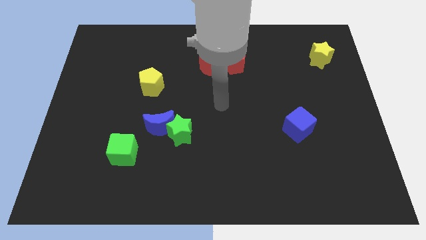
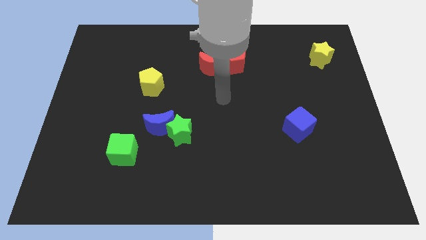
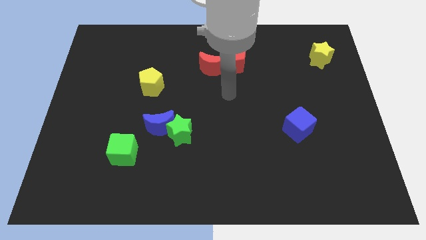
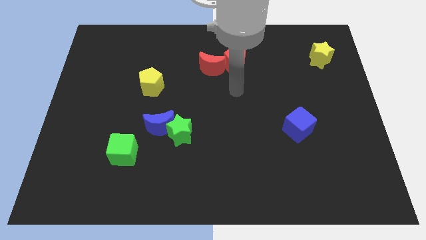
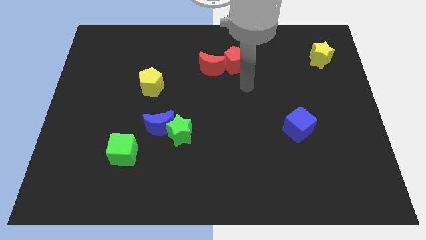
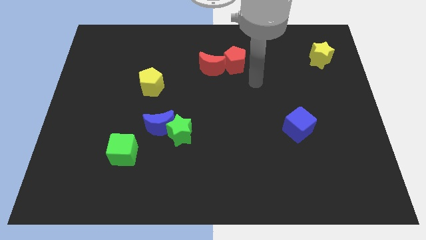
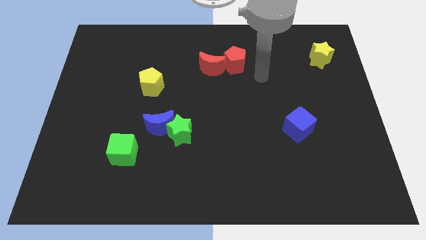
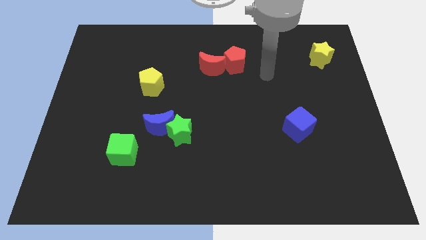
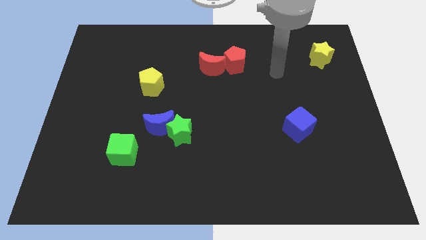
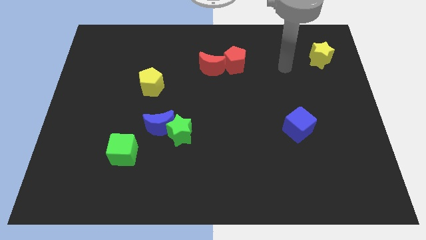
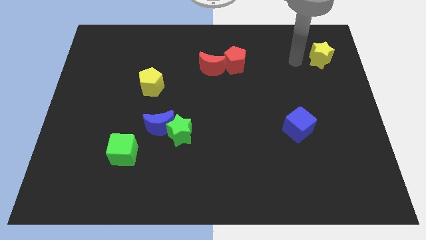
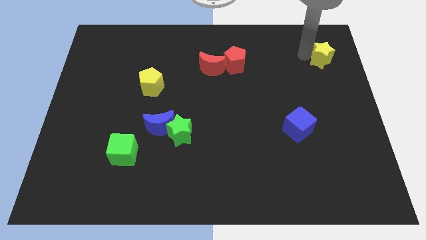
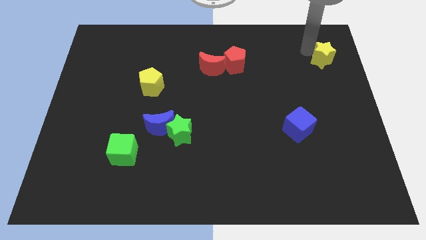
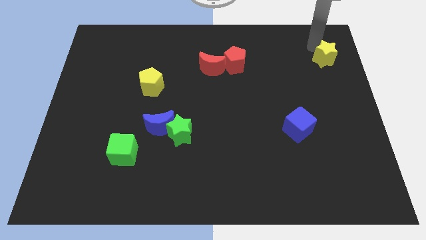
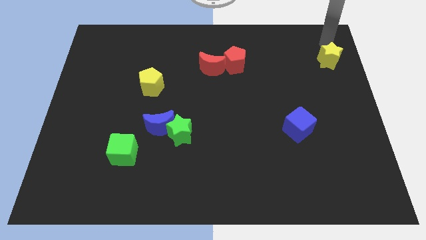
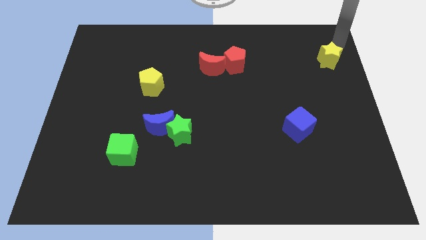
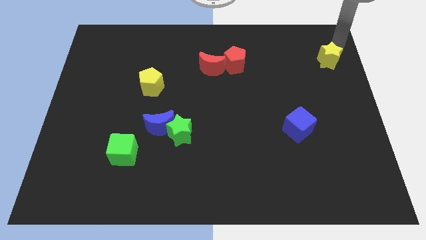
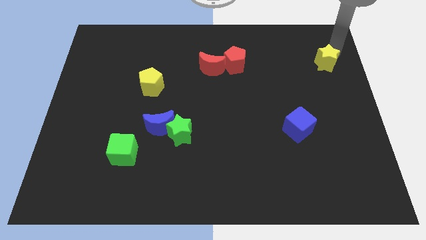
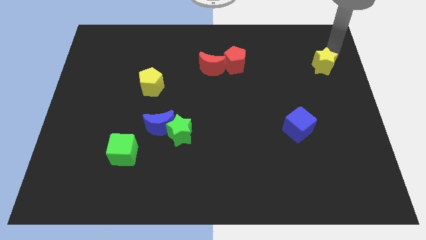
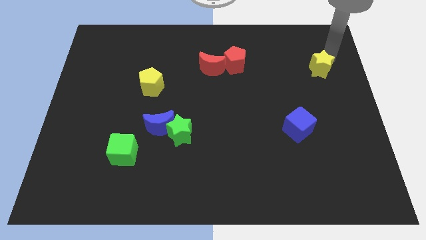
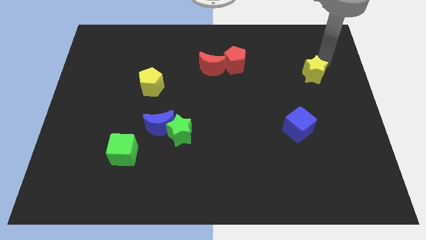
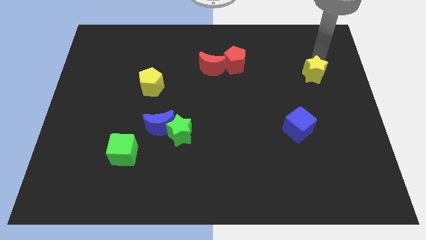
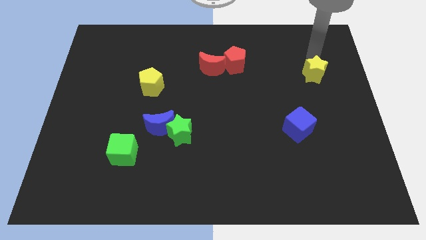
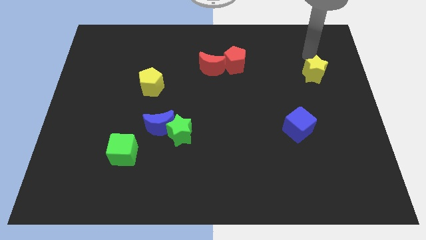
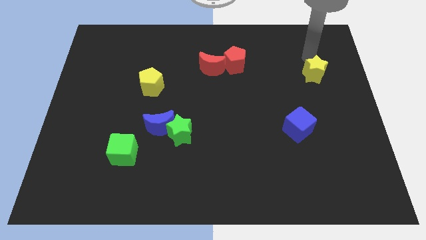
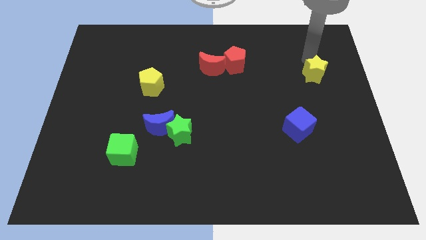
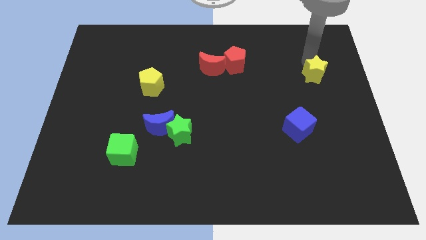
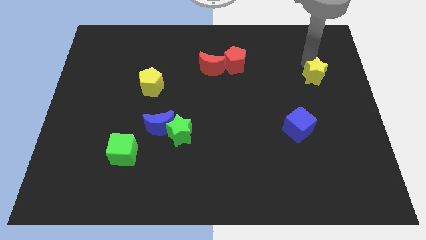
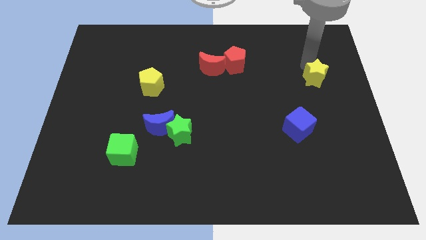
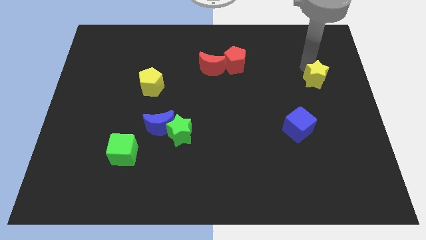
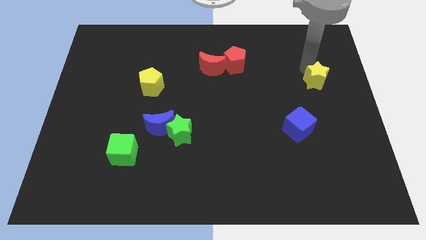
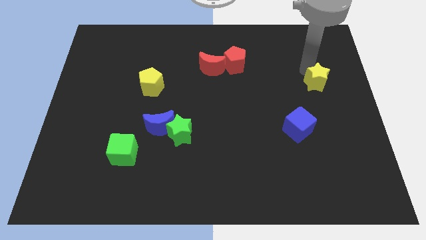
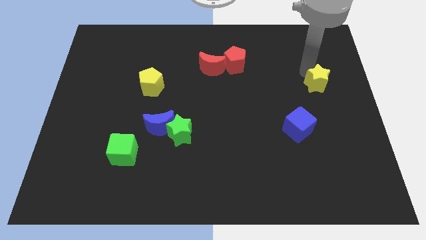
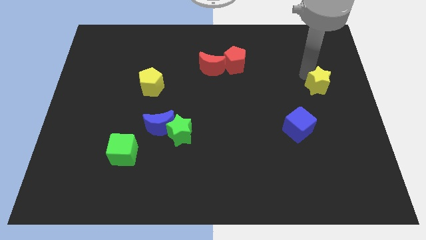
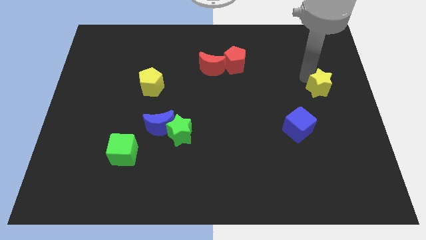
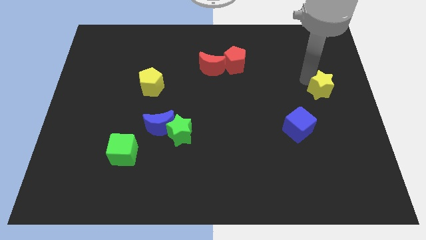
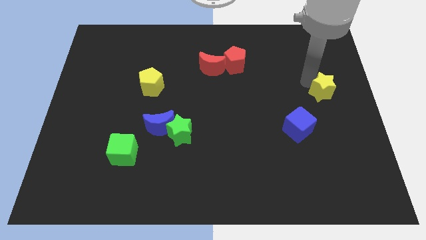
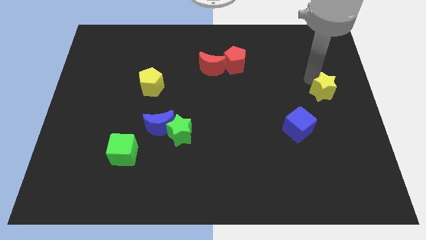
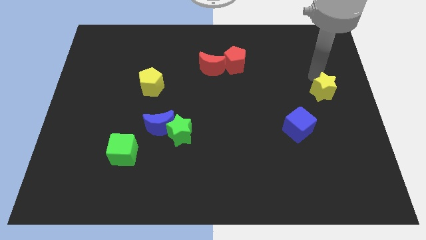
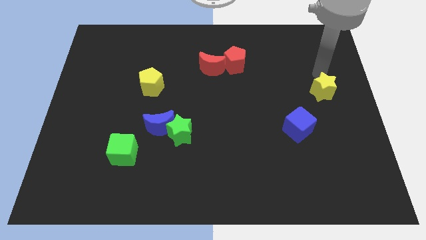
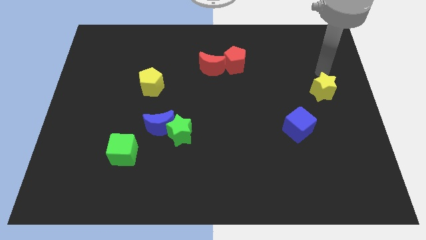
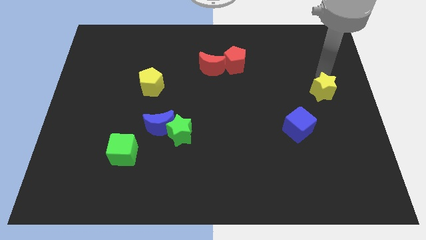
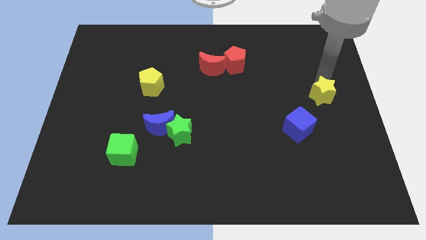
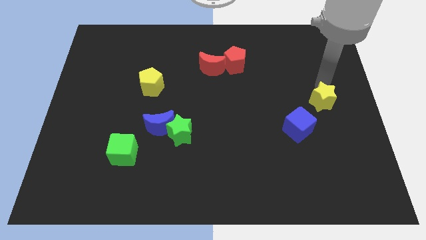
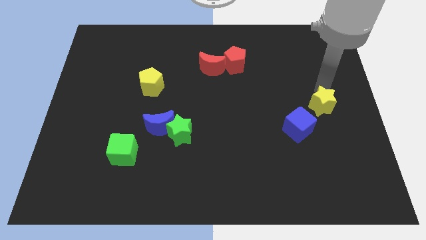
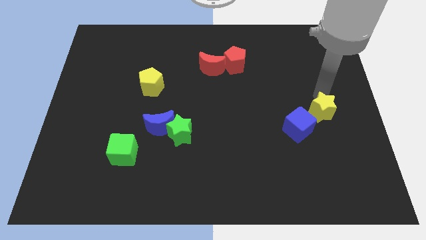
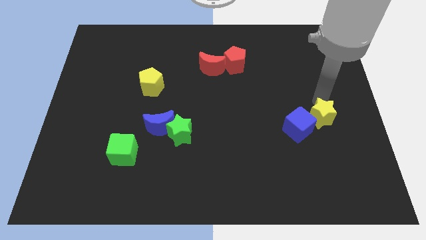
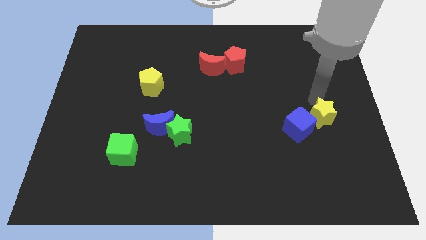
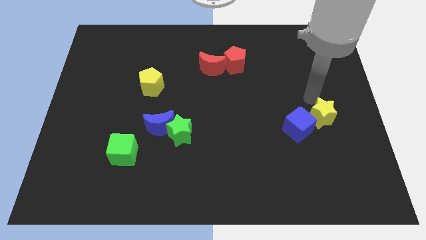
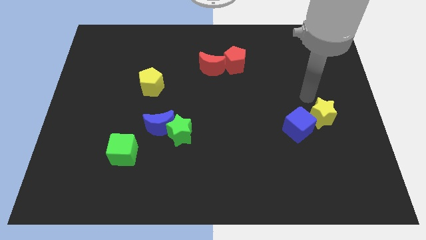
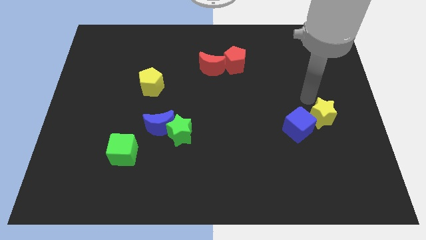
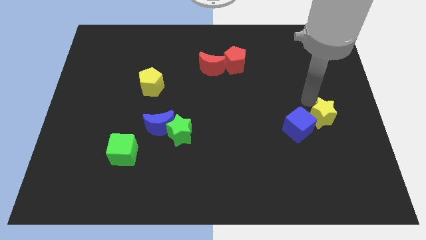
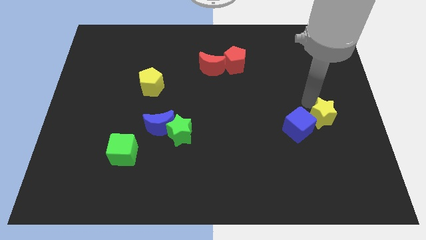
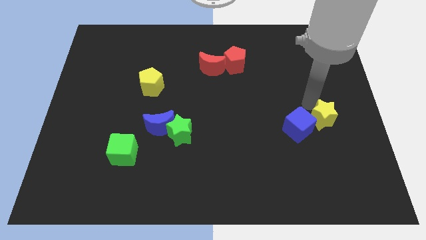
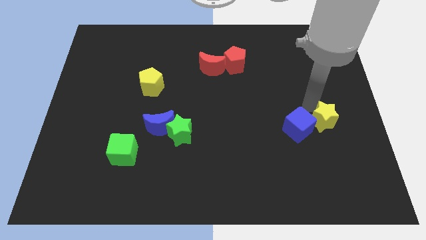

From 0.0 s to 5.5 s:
slide the yellow star down

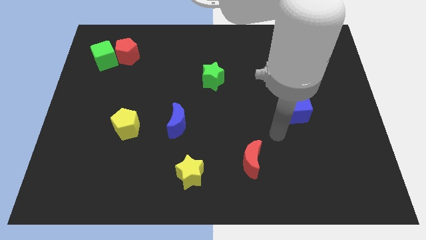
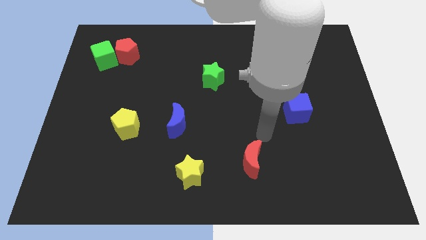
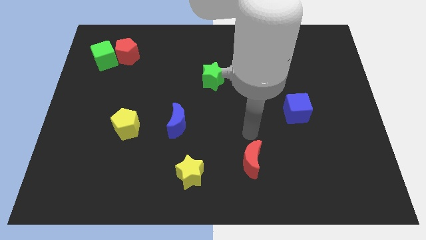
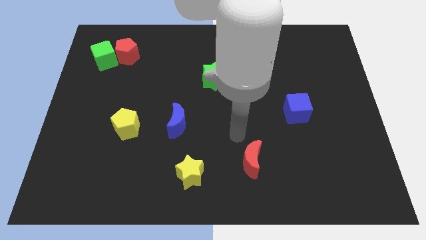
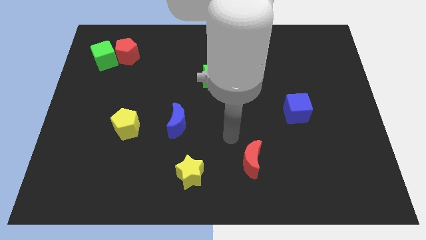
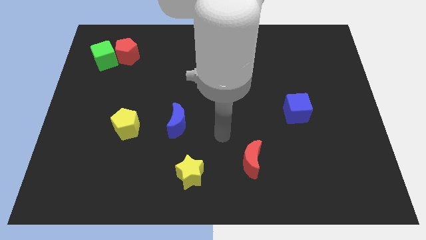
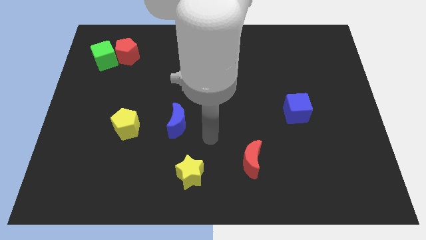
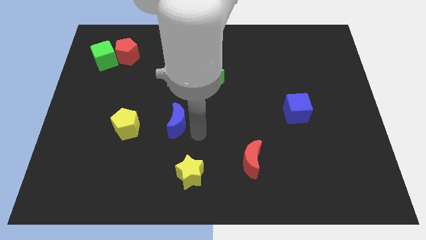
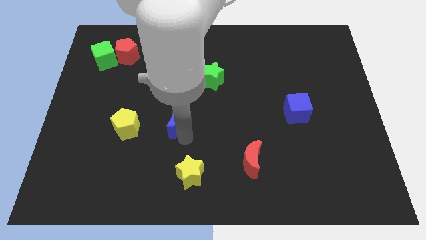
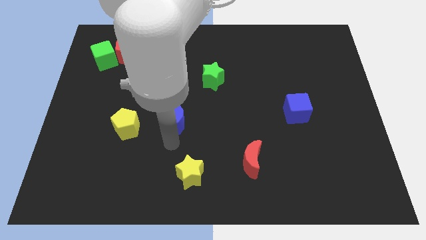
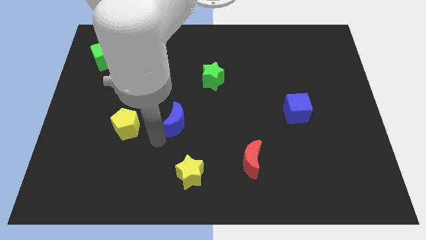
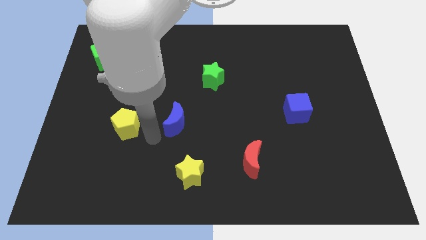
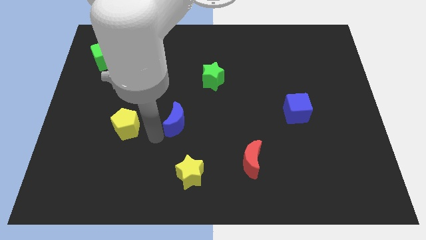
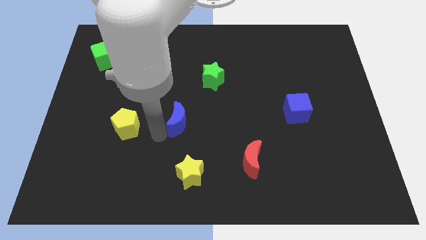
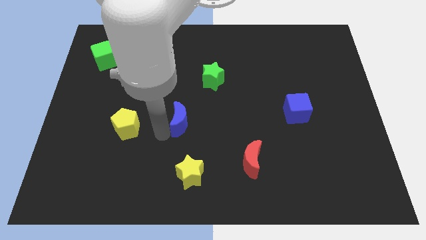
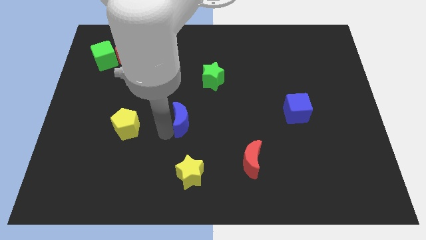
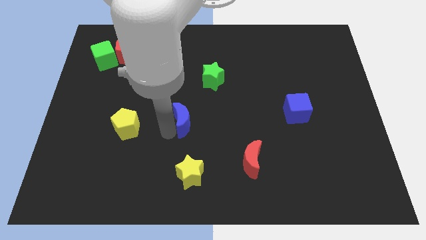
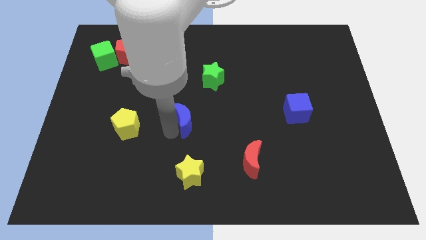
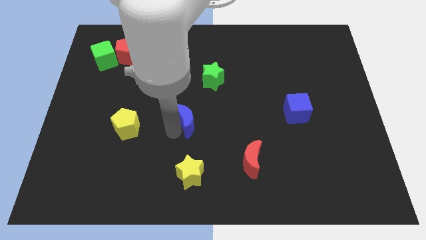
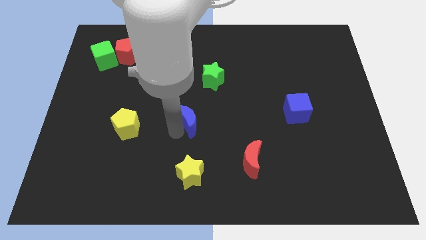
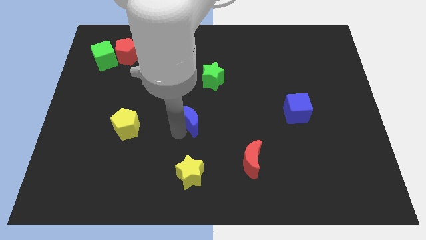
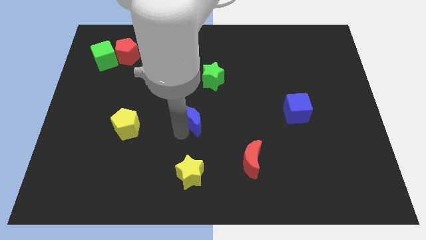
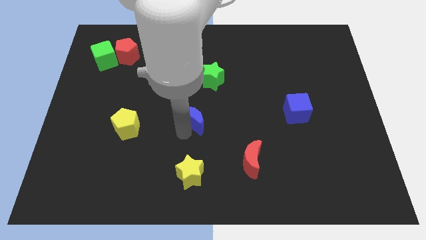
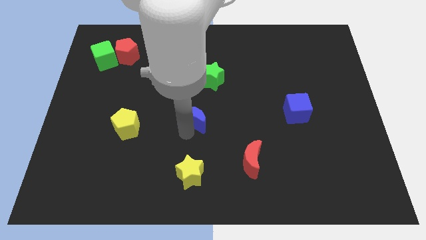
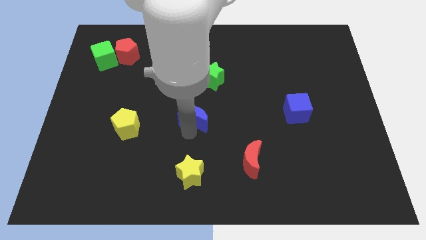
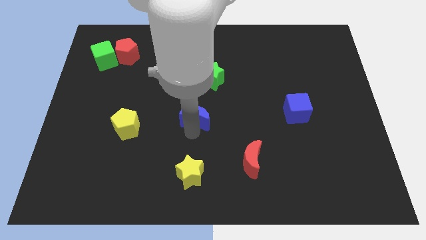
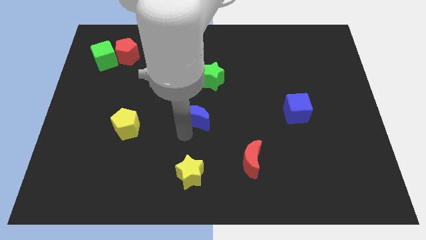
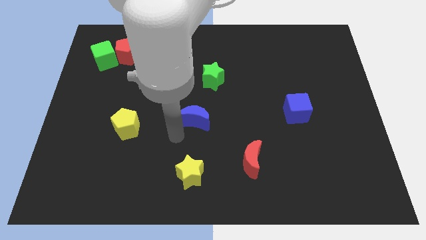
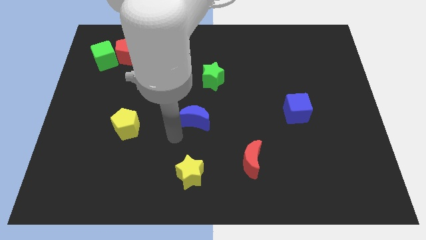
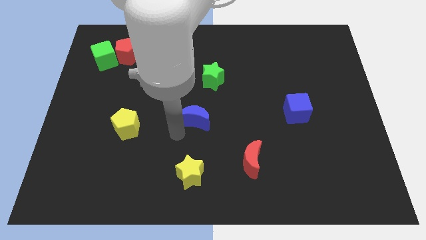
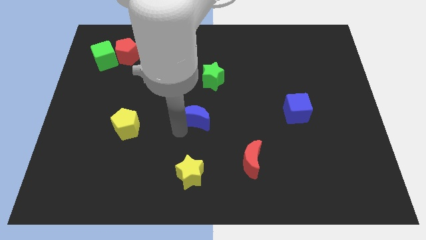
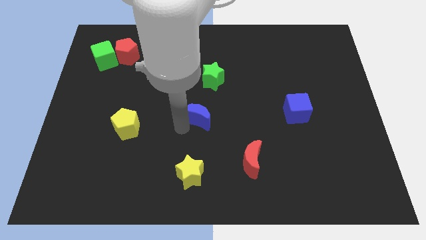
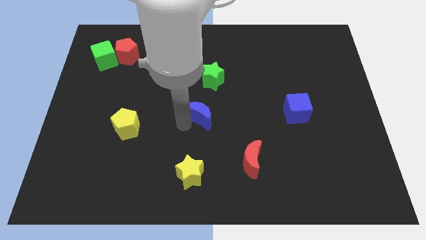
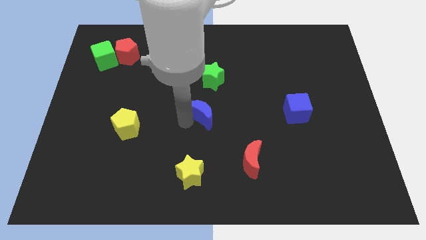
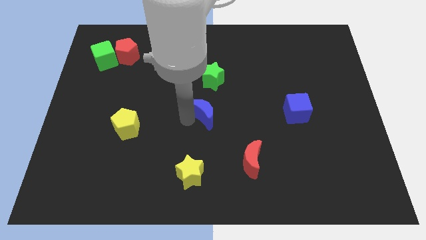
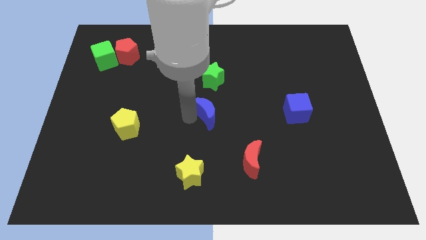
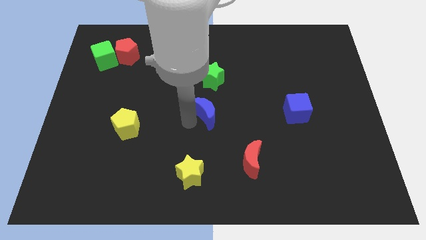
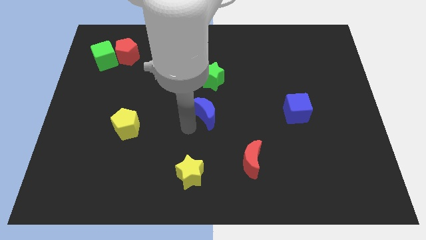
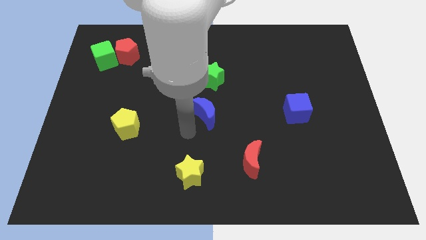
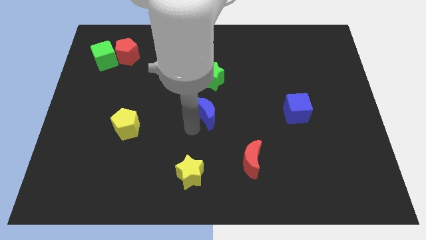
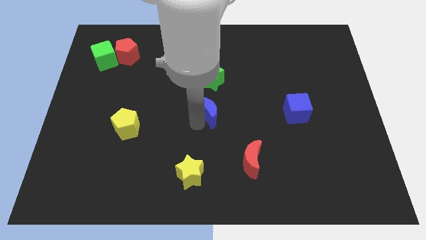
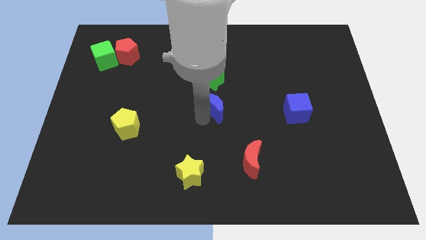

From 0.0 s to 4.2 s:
slide the blue moon somewhat diagonally upwards and right
